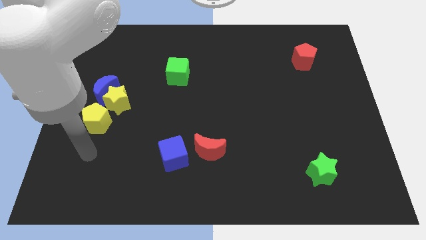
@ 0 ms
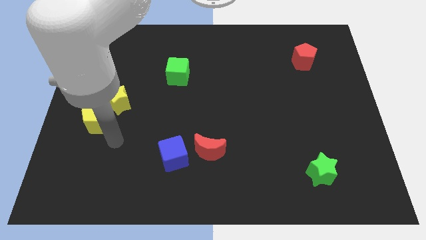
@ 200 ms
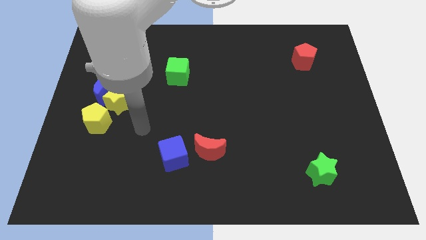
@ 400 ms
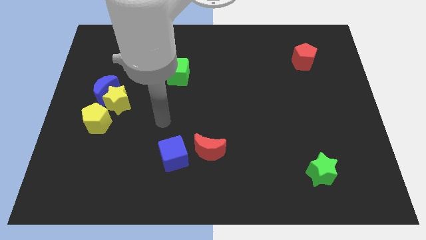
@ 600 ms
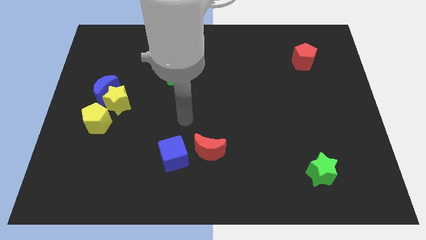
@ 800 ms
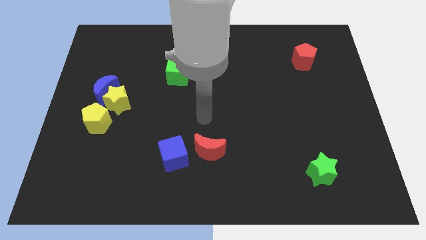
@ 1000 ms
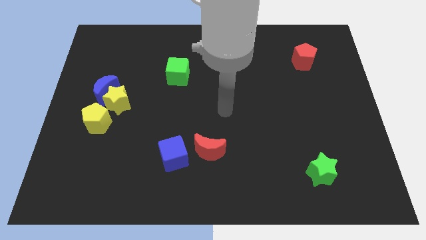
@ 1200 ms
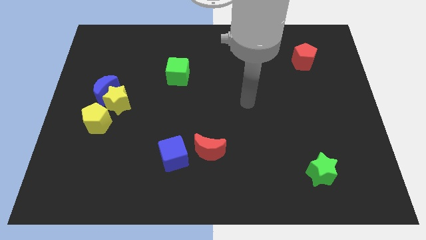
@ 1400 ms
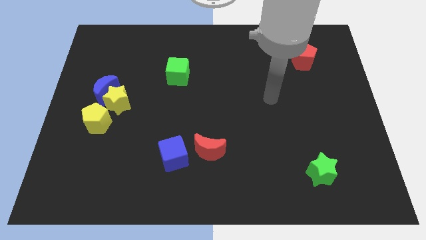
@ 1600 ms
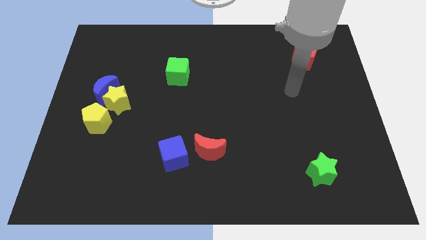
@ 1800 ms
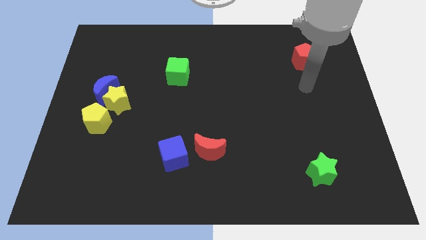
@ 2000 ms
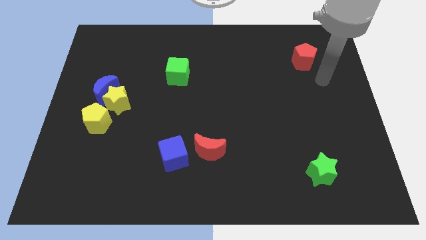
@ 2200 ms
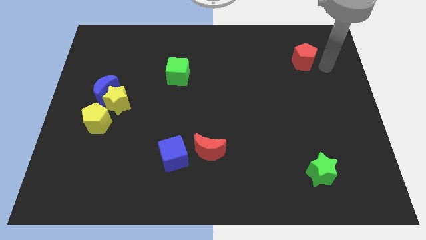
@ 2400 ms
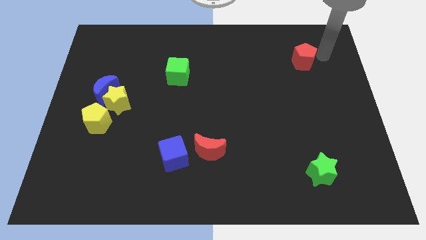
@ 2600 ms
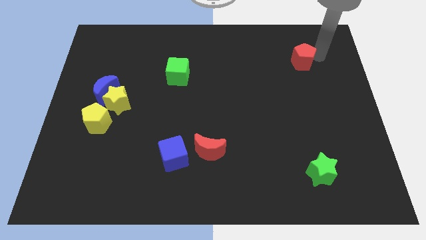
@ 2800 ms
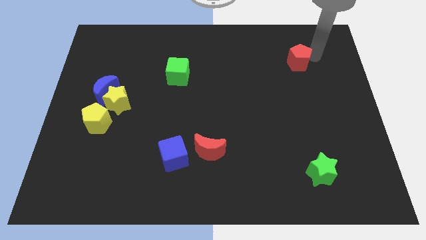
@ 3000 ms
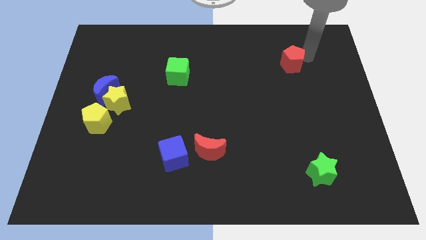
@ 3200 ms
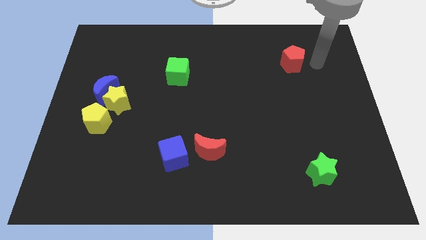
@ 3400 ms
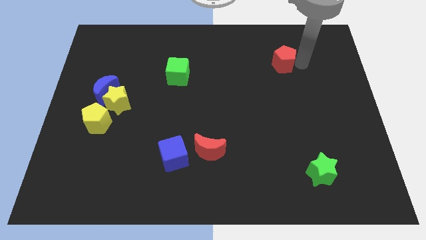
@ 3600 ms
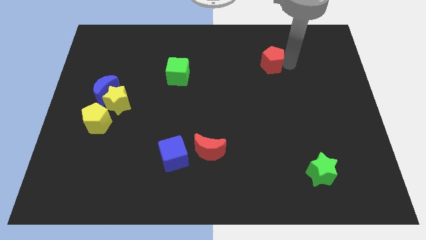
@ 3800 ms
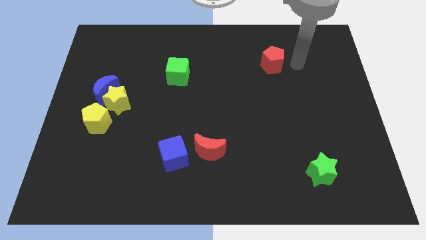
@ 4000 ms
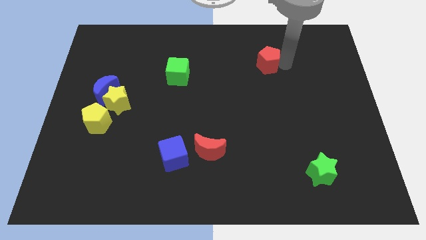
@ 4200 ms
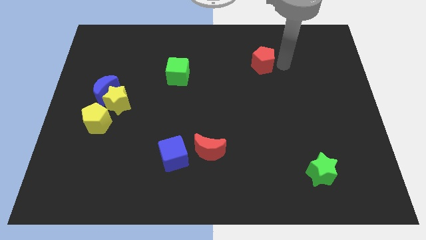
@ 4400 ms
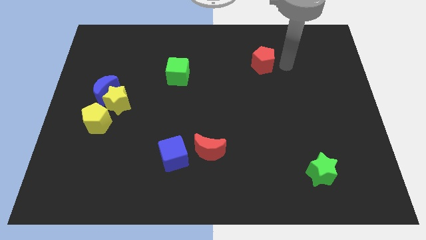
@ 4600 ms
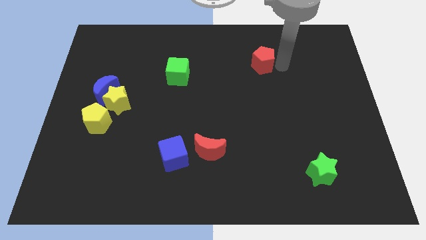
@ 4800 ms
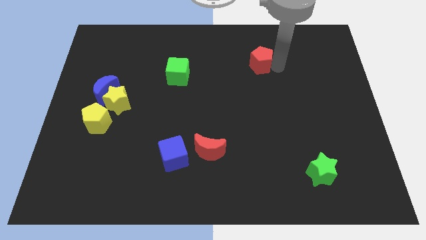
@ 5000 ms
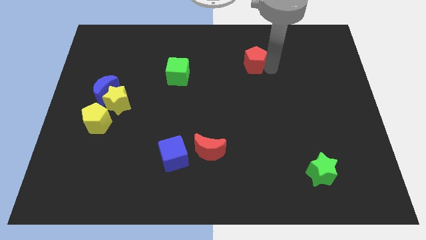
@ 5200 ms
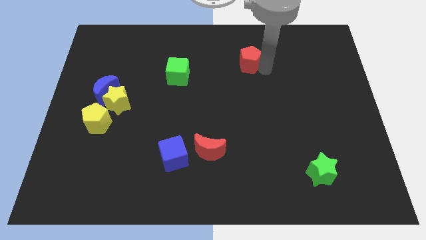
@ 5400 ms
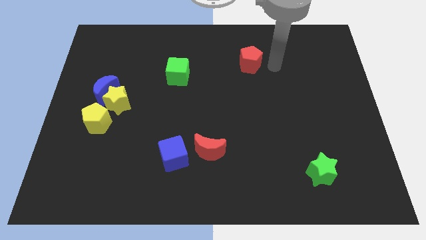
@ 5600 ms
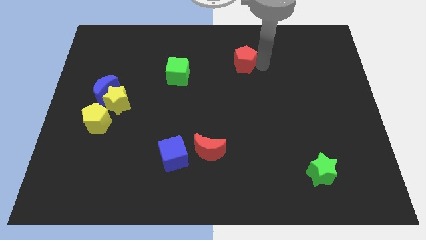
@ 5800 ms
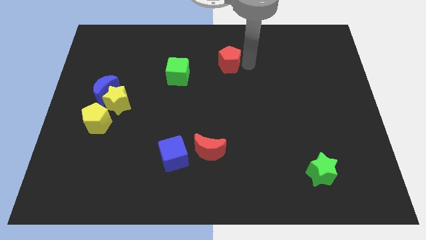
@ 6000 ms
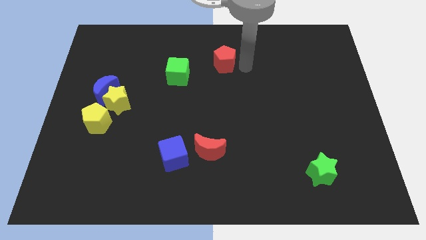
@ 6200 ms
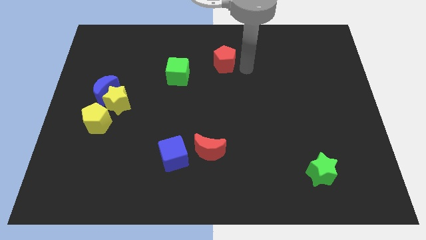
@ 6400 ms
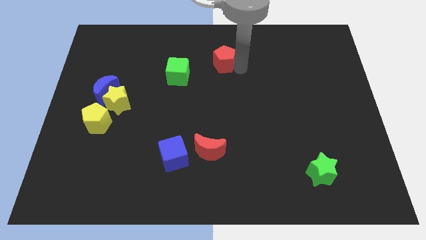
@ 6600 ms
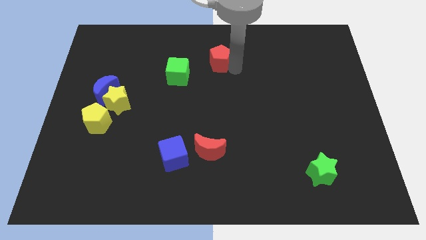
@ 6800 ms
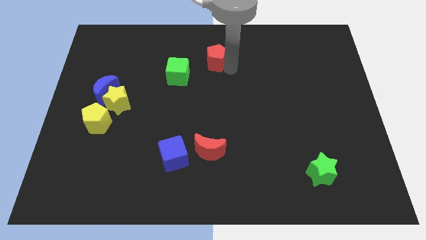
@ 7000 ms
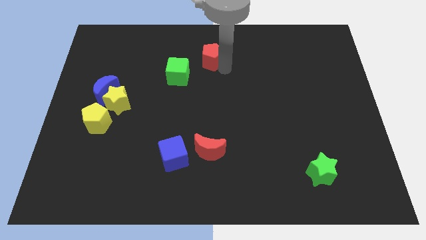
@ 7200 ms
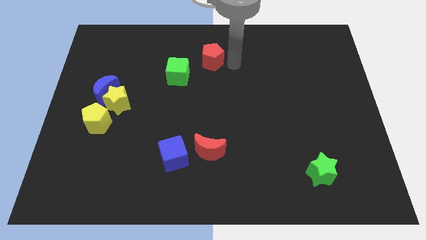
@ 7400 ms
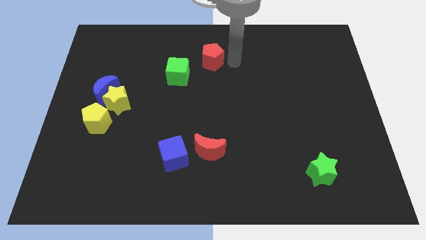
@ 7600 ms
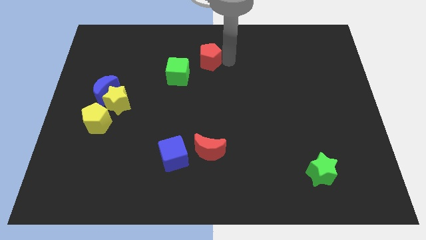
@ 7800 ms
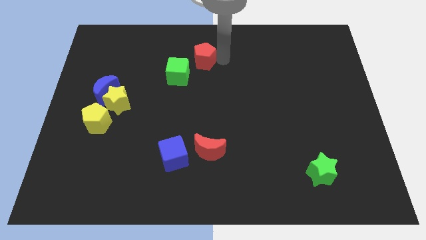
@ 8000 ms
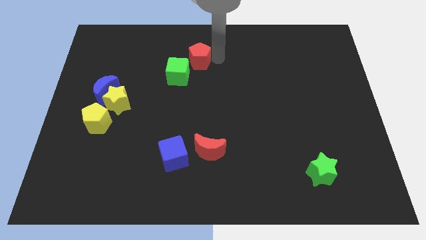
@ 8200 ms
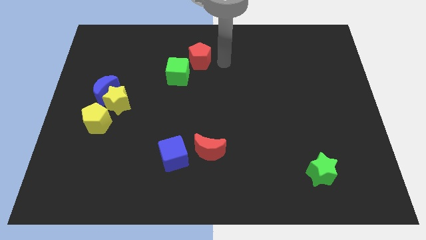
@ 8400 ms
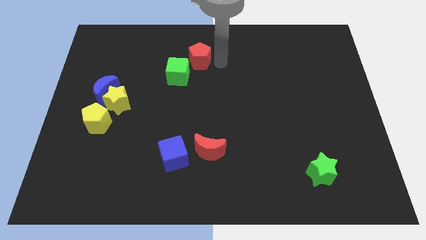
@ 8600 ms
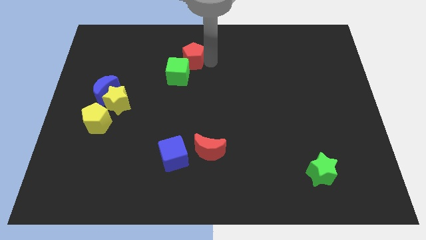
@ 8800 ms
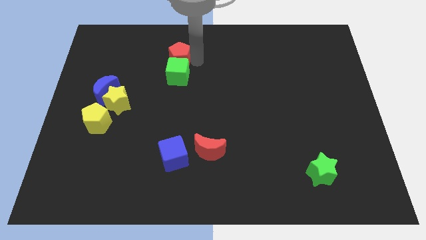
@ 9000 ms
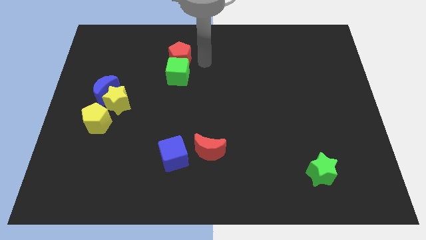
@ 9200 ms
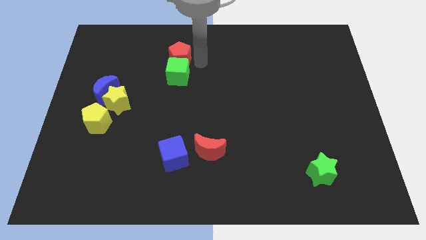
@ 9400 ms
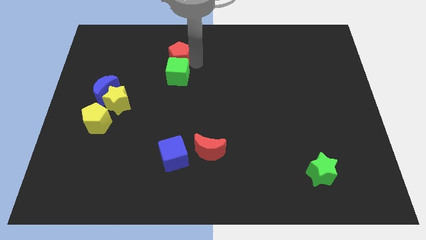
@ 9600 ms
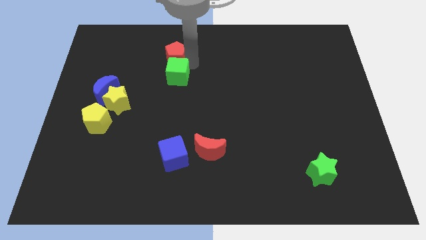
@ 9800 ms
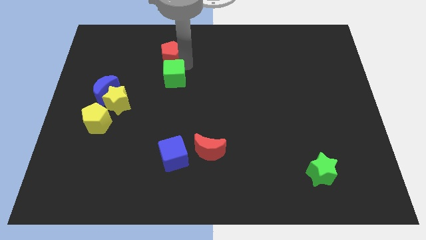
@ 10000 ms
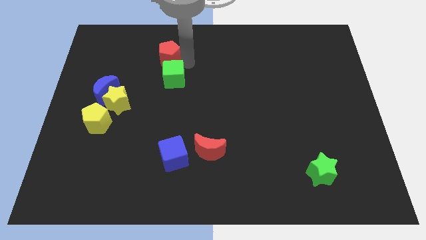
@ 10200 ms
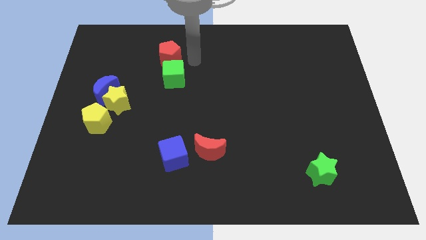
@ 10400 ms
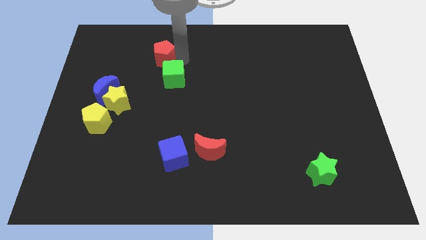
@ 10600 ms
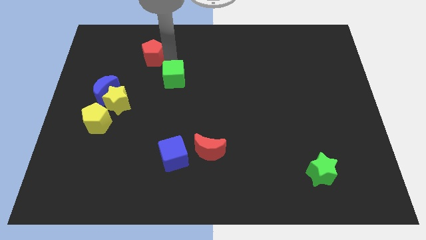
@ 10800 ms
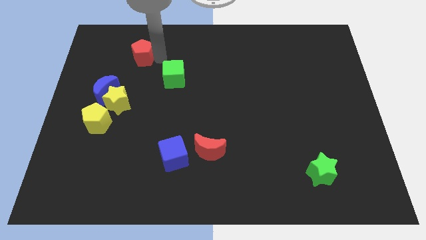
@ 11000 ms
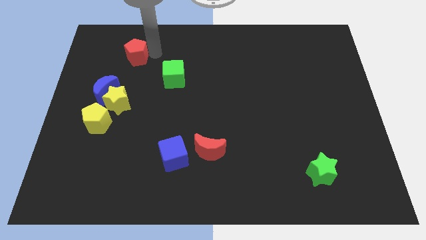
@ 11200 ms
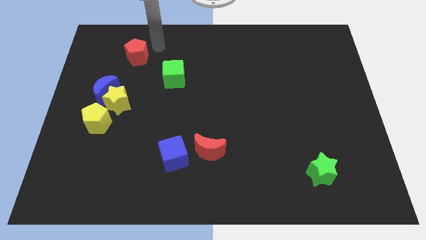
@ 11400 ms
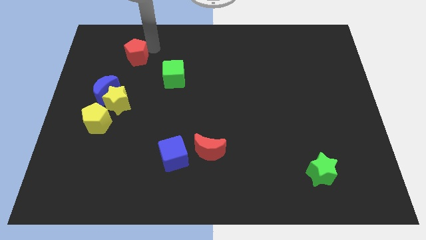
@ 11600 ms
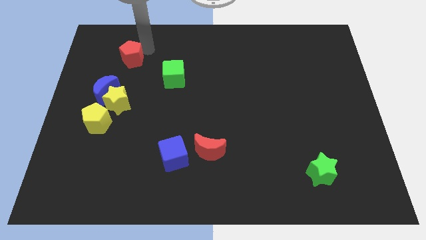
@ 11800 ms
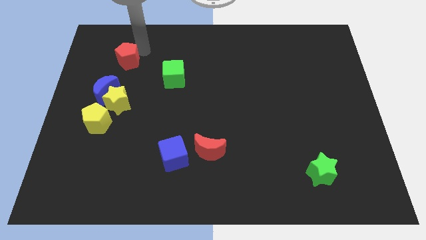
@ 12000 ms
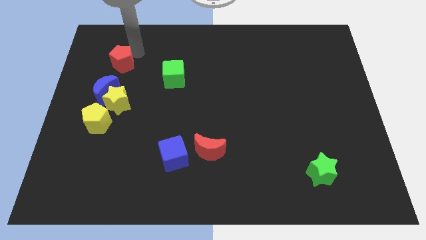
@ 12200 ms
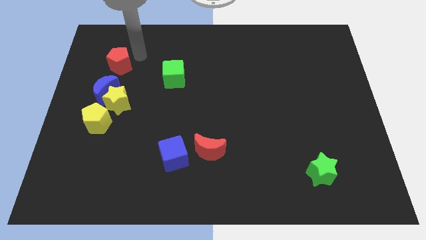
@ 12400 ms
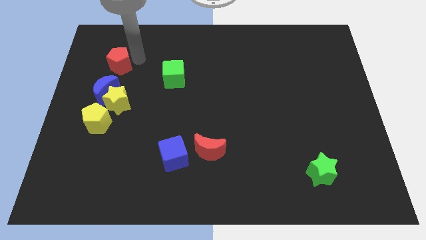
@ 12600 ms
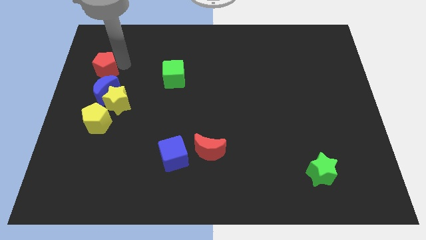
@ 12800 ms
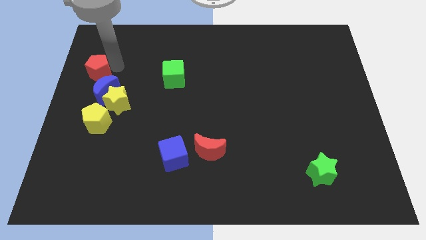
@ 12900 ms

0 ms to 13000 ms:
push the red pentagon to the left side

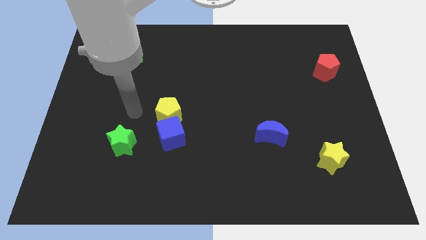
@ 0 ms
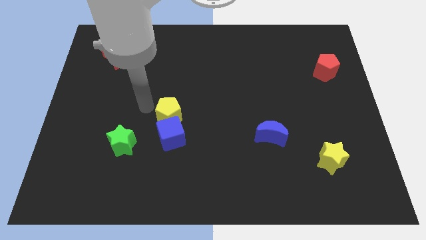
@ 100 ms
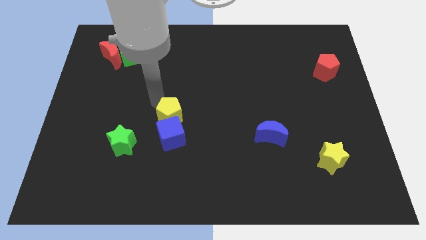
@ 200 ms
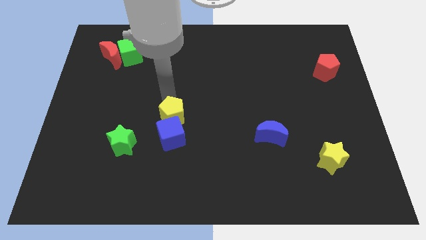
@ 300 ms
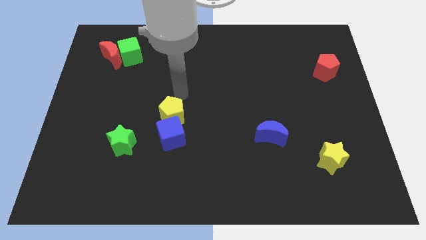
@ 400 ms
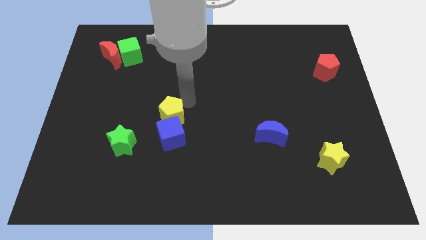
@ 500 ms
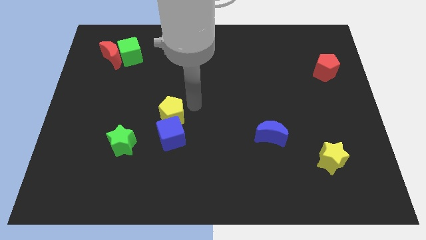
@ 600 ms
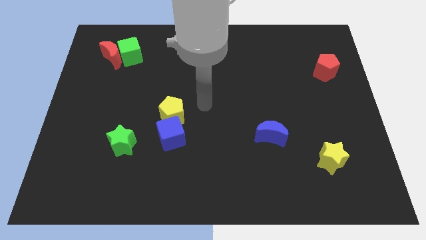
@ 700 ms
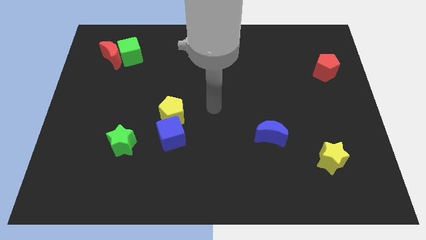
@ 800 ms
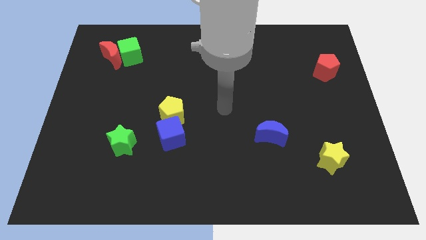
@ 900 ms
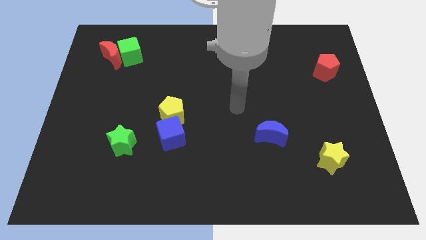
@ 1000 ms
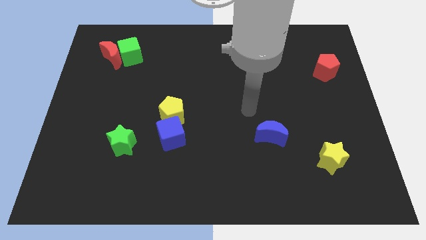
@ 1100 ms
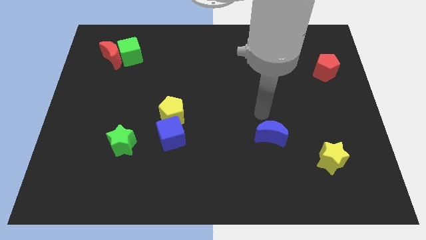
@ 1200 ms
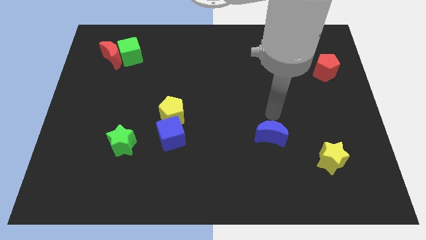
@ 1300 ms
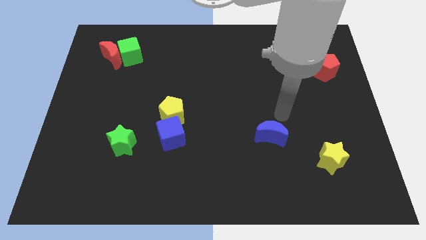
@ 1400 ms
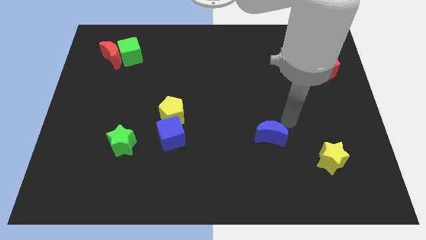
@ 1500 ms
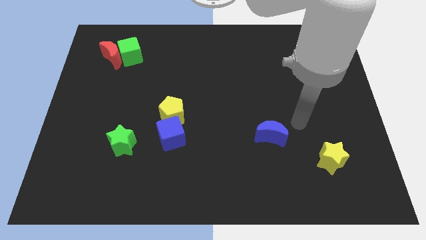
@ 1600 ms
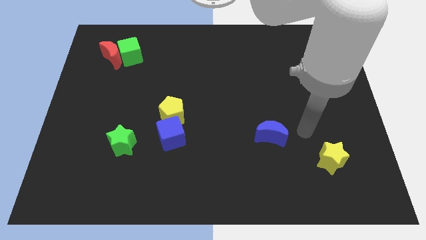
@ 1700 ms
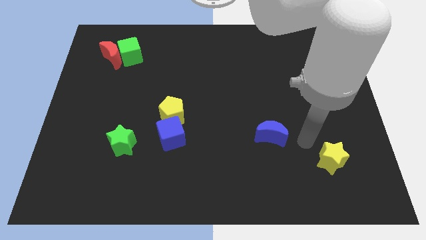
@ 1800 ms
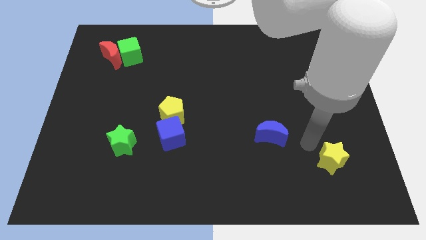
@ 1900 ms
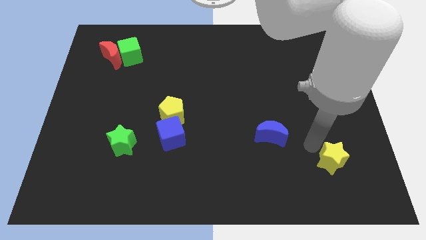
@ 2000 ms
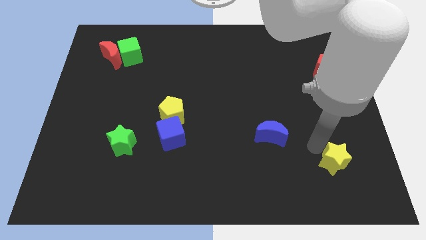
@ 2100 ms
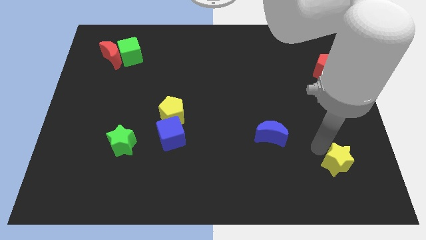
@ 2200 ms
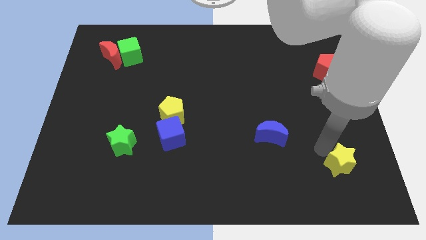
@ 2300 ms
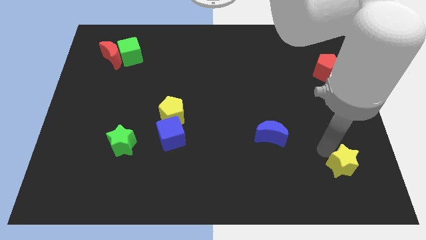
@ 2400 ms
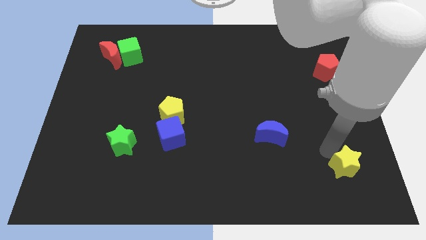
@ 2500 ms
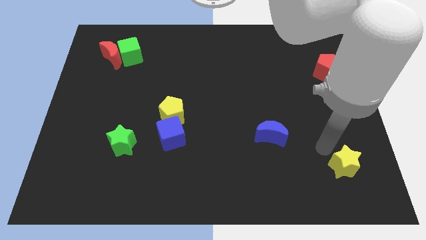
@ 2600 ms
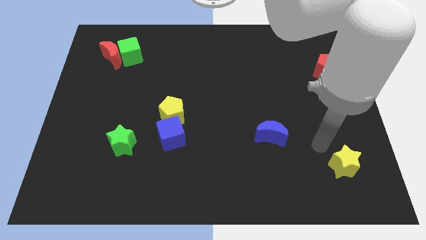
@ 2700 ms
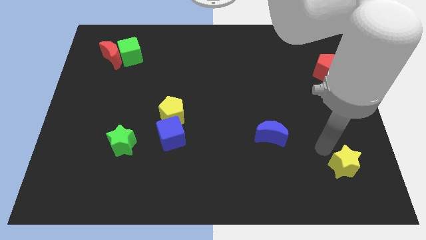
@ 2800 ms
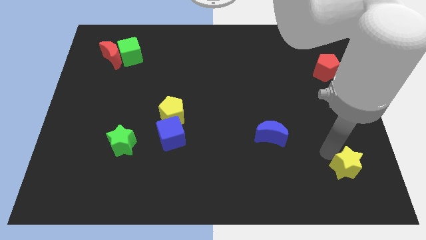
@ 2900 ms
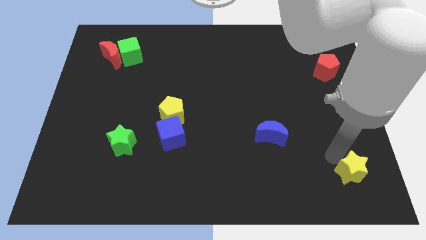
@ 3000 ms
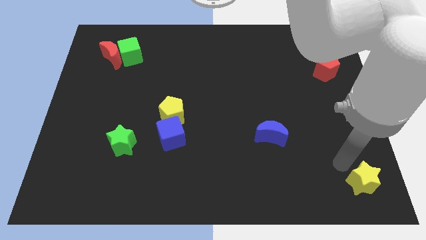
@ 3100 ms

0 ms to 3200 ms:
push the yellow star to the bottom right
